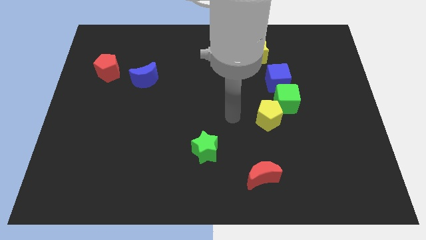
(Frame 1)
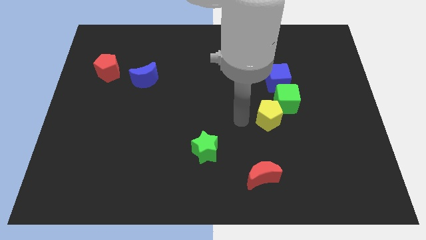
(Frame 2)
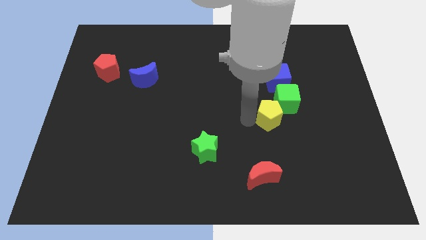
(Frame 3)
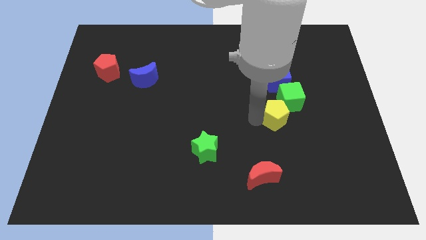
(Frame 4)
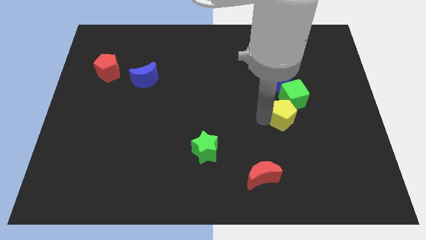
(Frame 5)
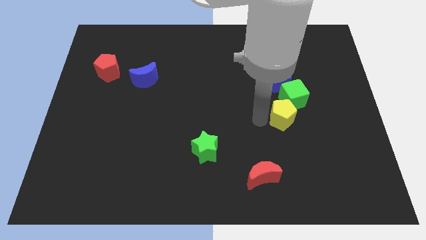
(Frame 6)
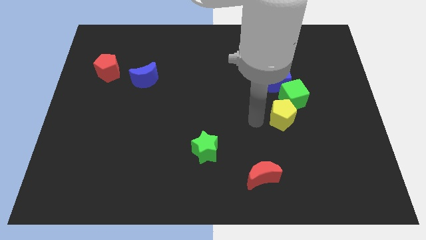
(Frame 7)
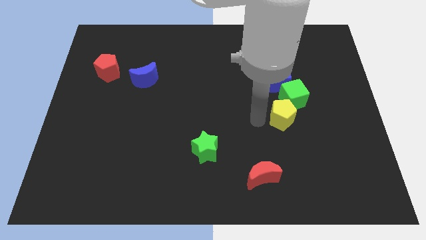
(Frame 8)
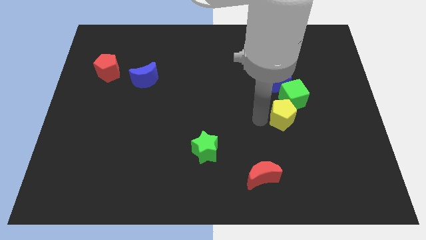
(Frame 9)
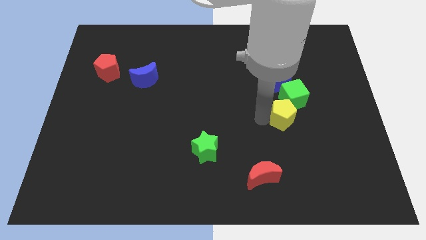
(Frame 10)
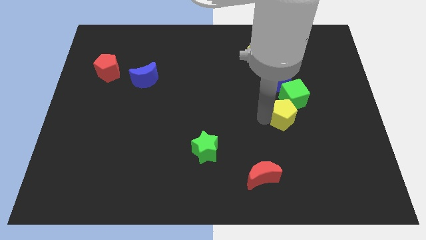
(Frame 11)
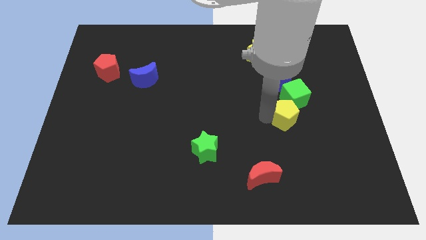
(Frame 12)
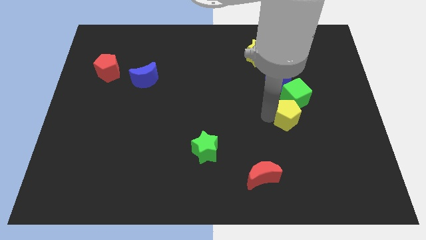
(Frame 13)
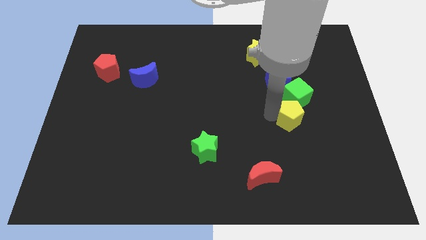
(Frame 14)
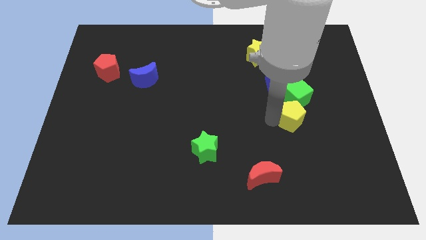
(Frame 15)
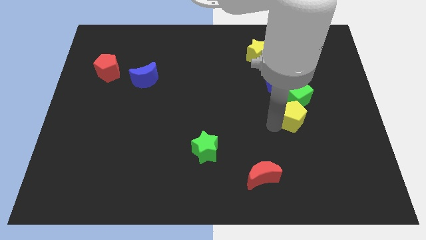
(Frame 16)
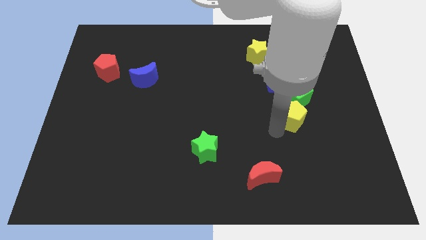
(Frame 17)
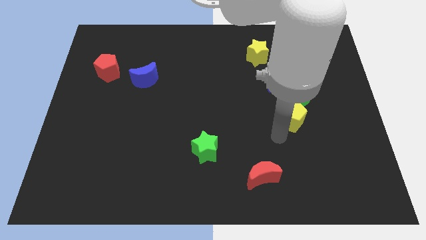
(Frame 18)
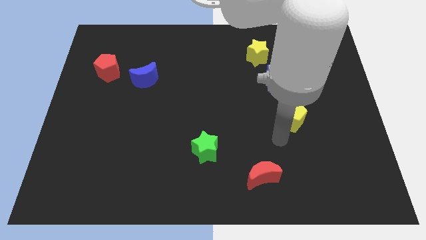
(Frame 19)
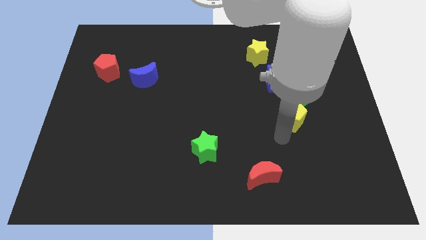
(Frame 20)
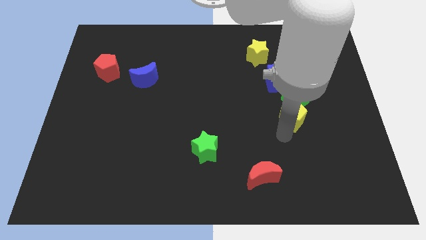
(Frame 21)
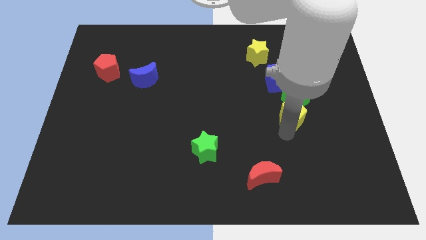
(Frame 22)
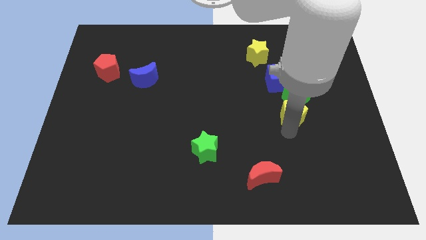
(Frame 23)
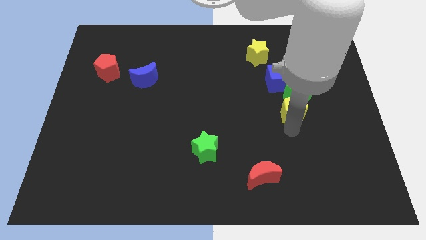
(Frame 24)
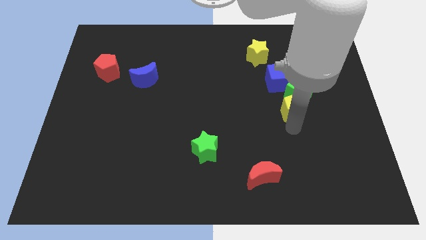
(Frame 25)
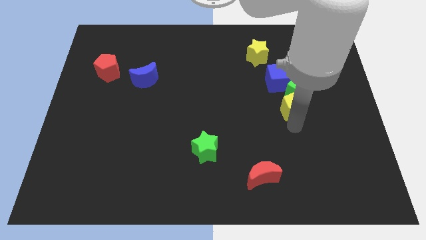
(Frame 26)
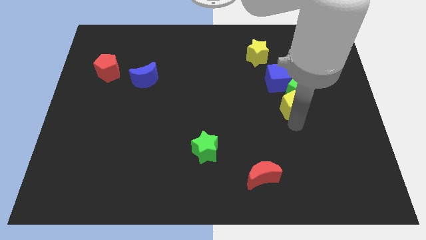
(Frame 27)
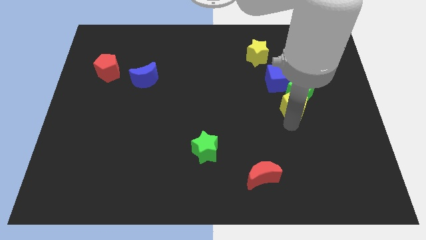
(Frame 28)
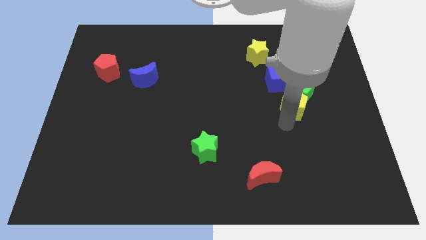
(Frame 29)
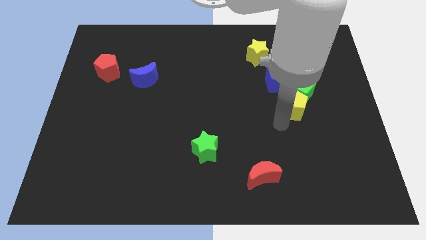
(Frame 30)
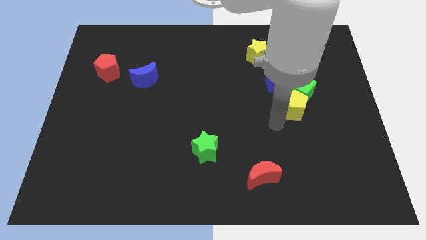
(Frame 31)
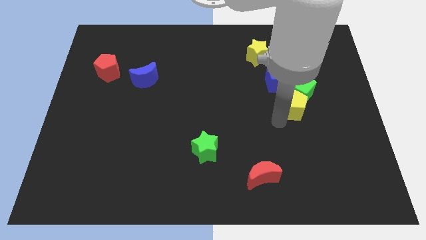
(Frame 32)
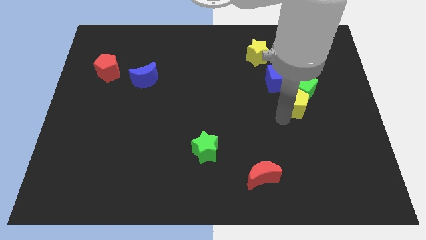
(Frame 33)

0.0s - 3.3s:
push the yellow pentagon diagonally up and to the right a little

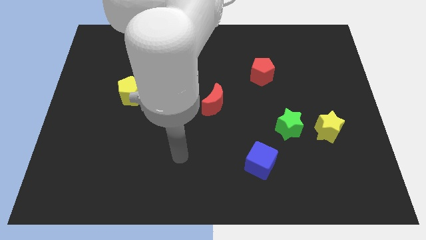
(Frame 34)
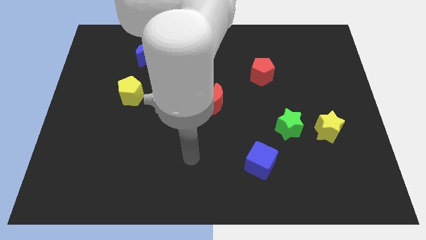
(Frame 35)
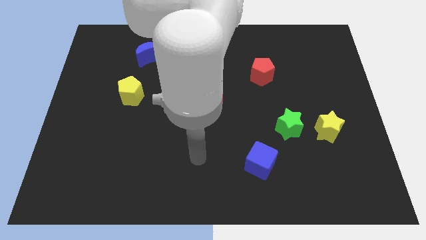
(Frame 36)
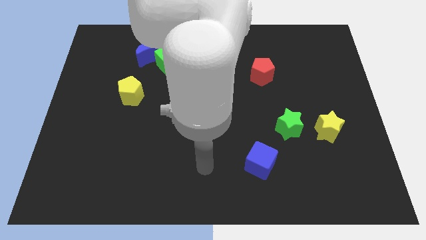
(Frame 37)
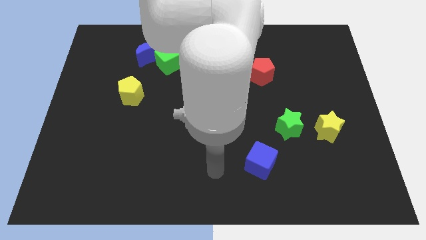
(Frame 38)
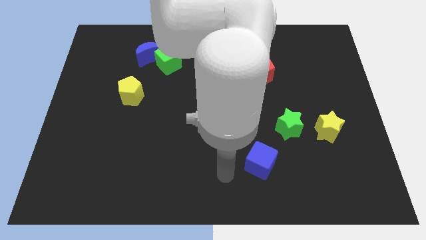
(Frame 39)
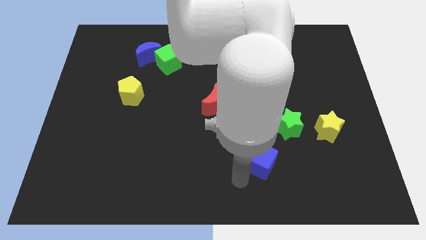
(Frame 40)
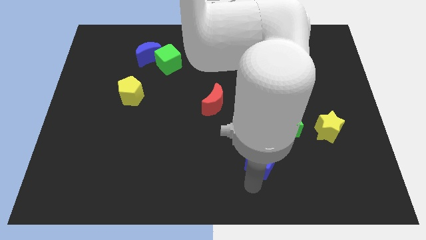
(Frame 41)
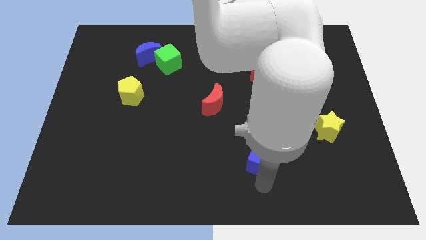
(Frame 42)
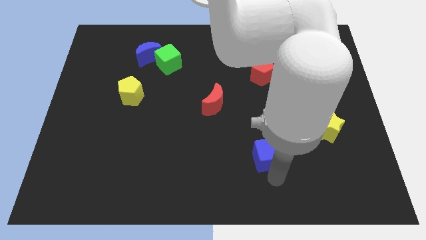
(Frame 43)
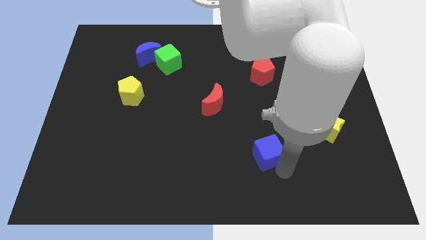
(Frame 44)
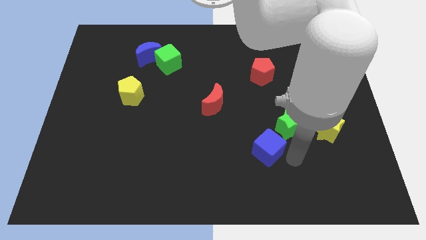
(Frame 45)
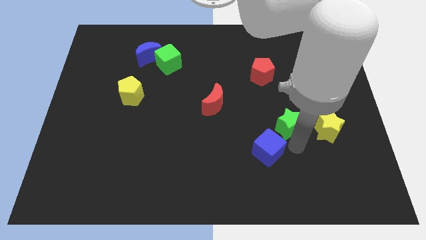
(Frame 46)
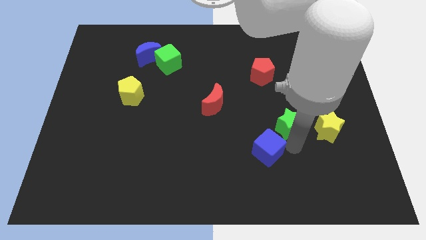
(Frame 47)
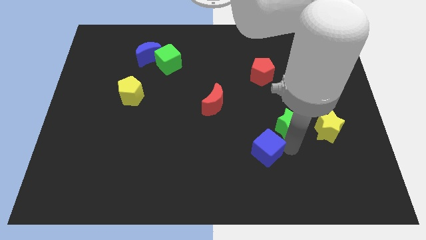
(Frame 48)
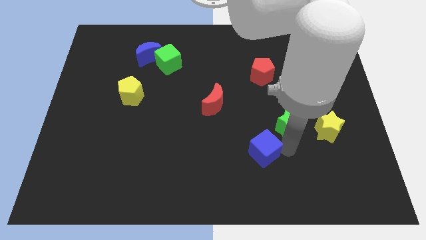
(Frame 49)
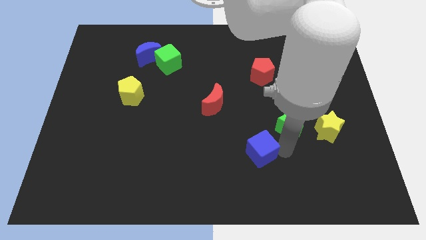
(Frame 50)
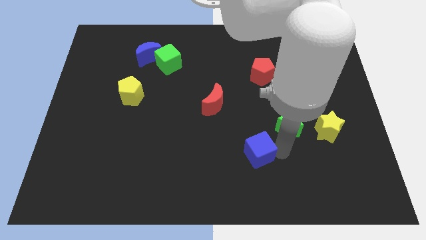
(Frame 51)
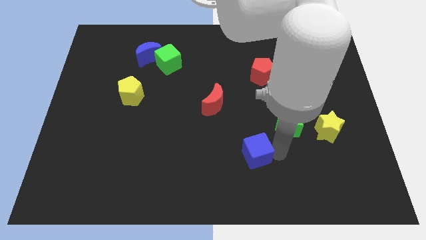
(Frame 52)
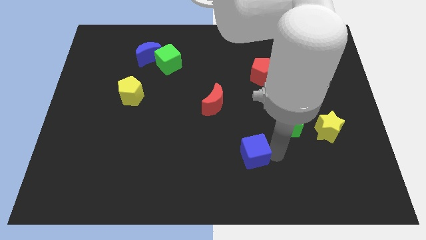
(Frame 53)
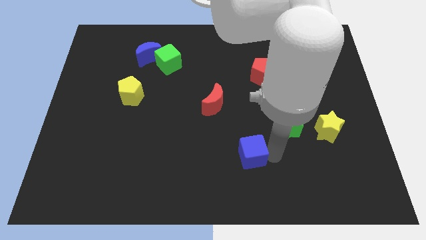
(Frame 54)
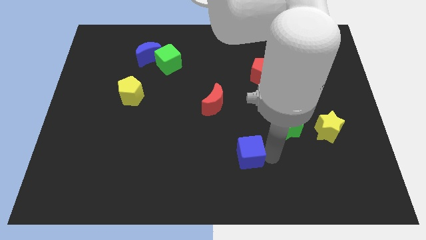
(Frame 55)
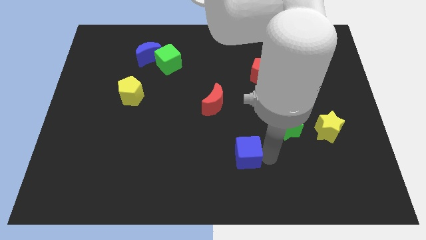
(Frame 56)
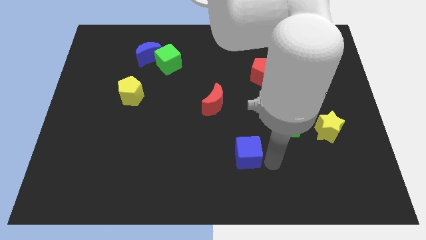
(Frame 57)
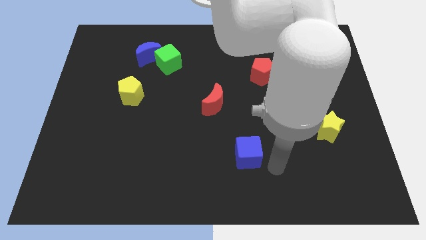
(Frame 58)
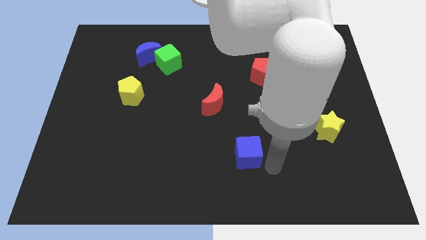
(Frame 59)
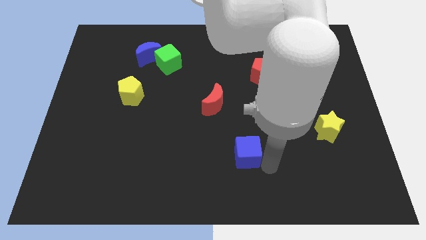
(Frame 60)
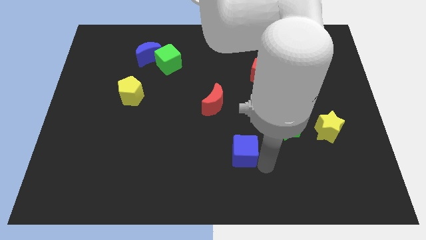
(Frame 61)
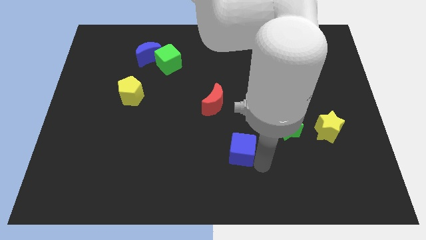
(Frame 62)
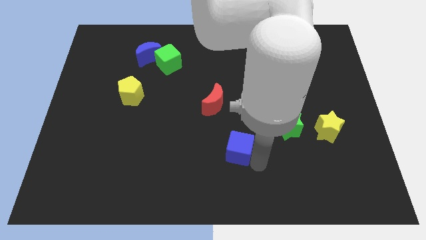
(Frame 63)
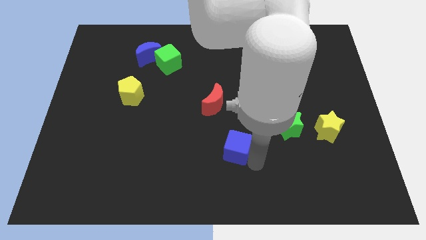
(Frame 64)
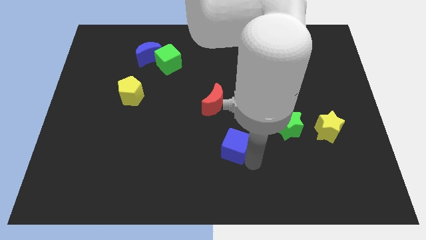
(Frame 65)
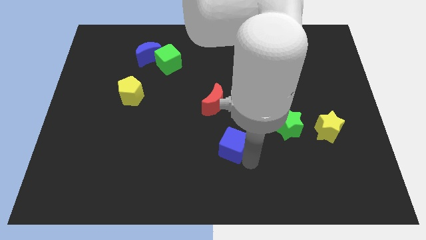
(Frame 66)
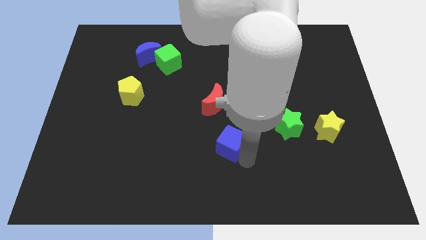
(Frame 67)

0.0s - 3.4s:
push the blue cube somewhat diagonally up and to the left

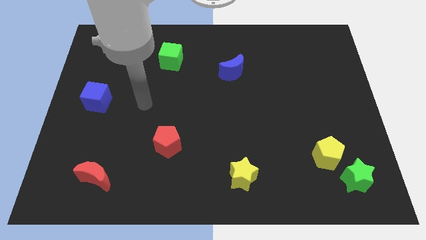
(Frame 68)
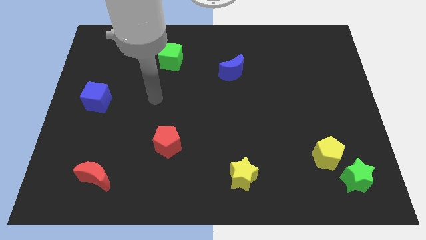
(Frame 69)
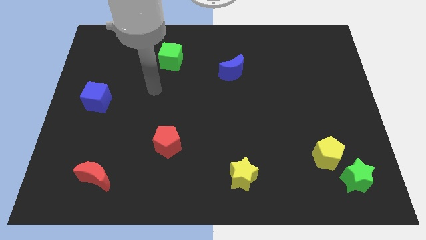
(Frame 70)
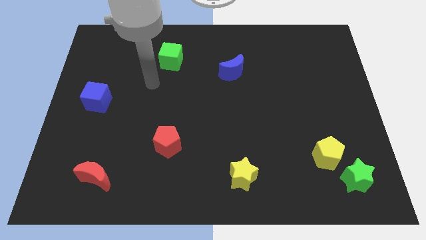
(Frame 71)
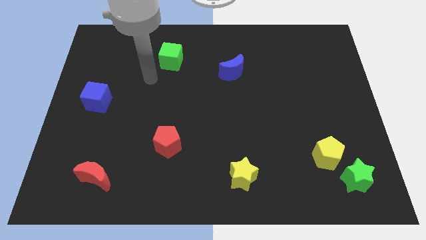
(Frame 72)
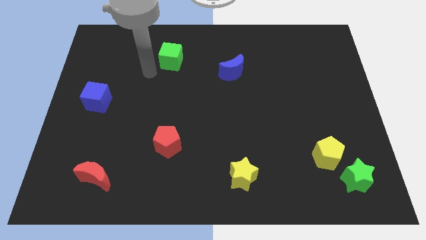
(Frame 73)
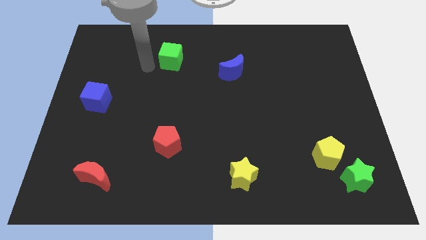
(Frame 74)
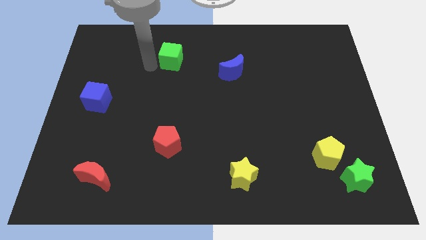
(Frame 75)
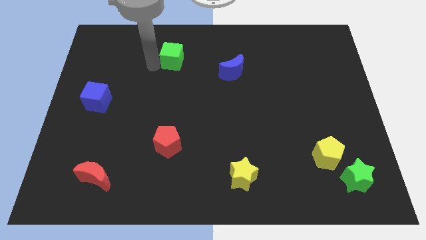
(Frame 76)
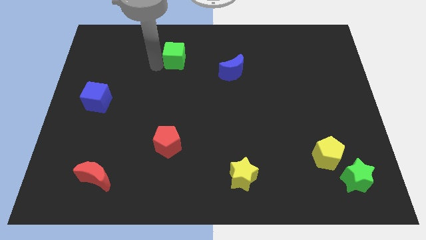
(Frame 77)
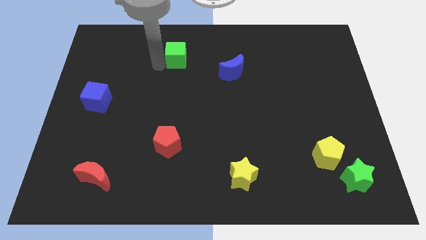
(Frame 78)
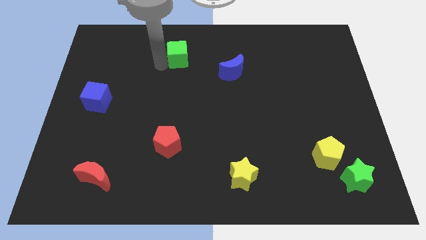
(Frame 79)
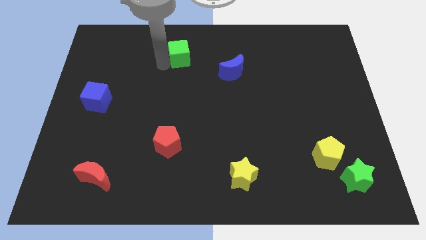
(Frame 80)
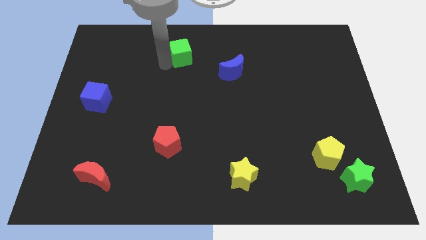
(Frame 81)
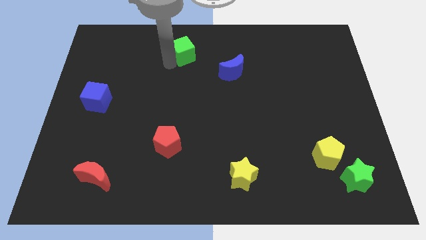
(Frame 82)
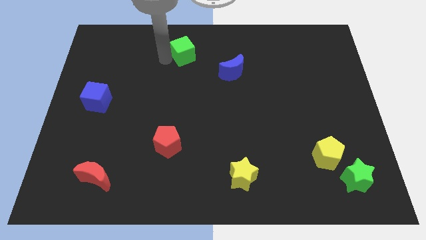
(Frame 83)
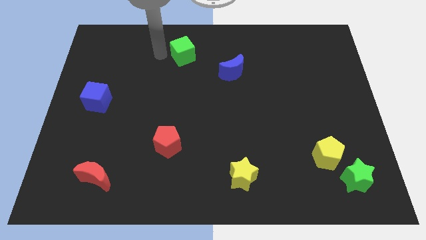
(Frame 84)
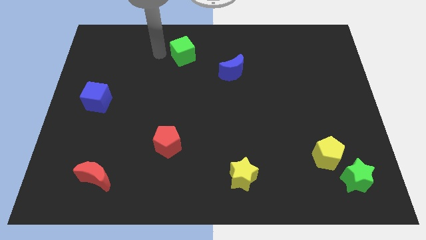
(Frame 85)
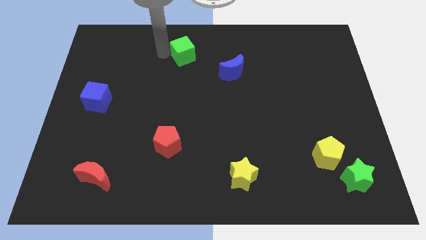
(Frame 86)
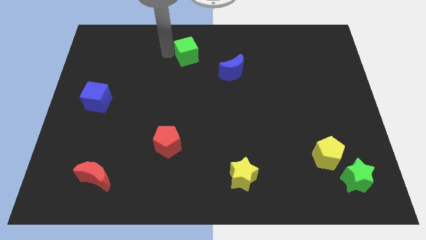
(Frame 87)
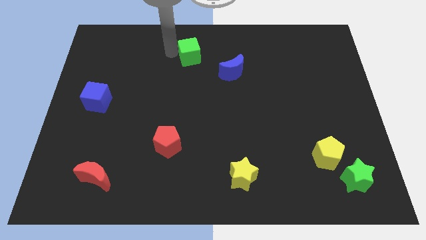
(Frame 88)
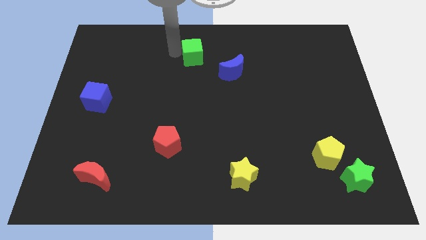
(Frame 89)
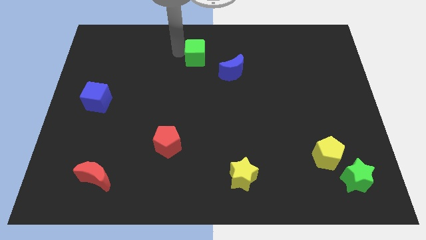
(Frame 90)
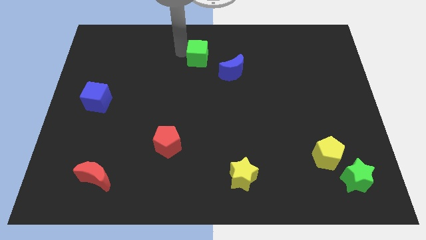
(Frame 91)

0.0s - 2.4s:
move the green cube a bit to the right
